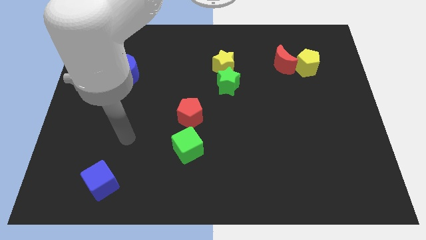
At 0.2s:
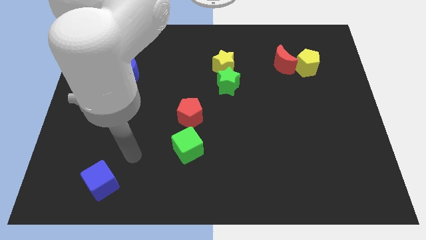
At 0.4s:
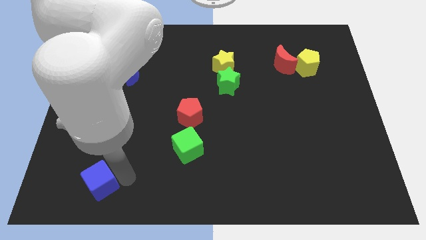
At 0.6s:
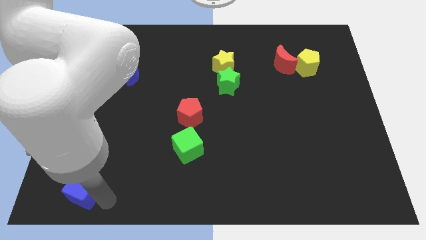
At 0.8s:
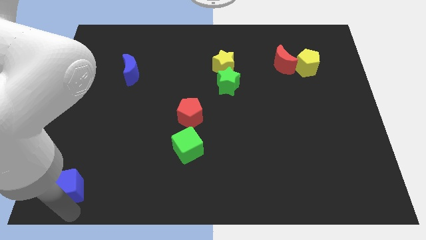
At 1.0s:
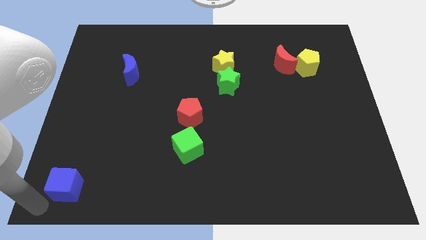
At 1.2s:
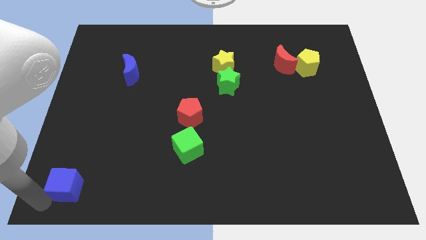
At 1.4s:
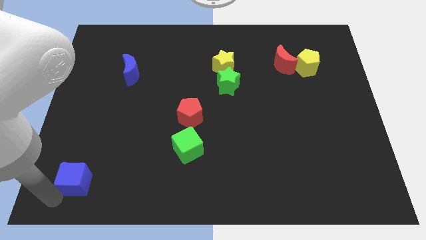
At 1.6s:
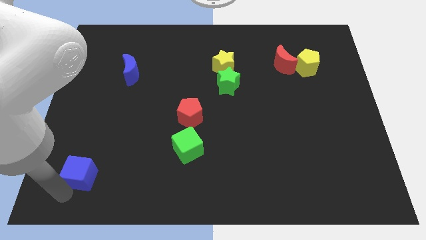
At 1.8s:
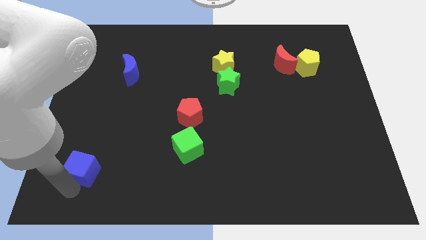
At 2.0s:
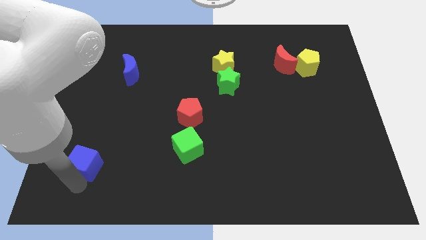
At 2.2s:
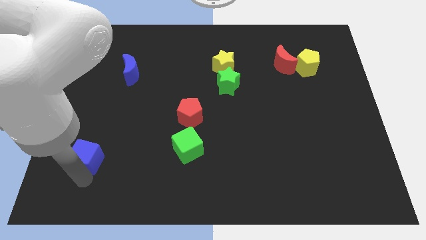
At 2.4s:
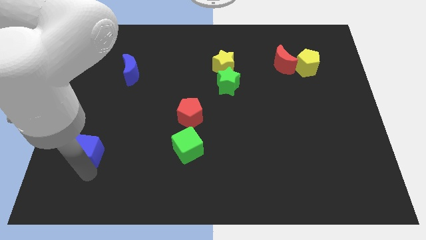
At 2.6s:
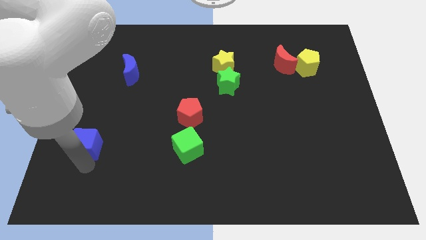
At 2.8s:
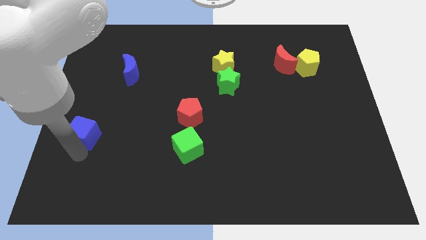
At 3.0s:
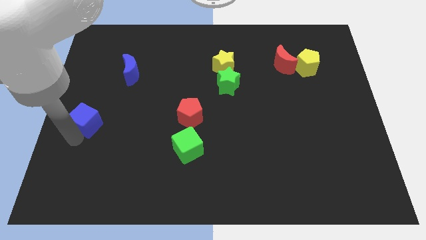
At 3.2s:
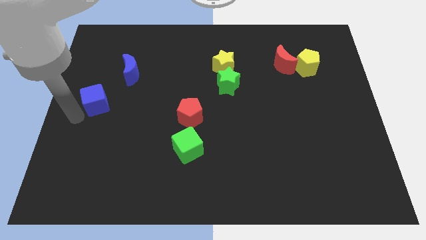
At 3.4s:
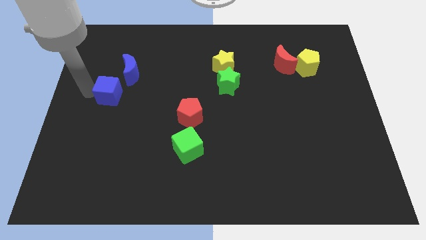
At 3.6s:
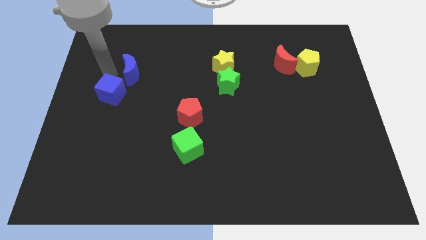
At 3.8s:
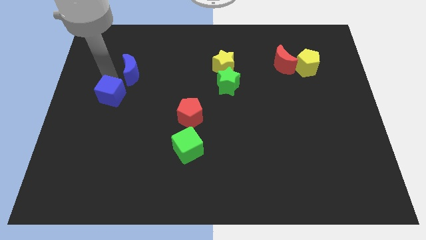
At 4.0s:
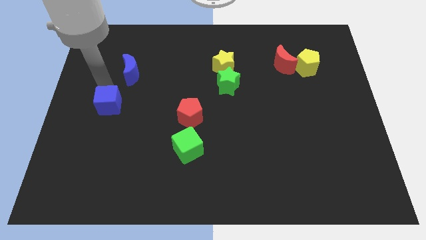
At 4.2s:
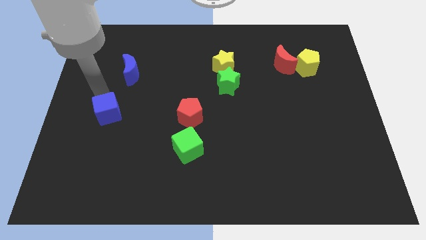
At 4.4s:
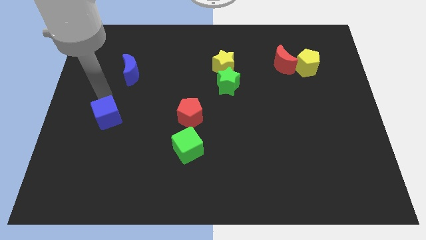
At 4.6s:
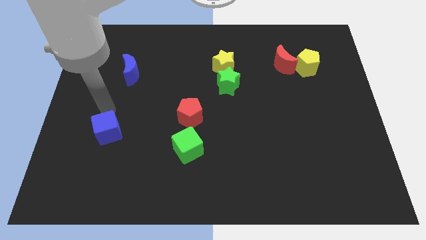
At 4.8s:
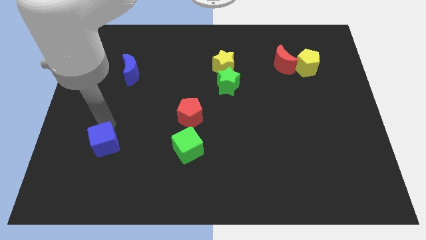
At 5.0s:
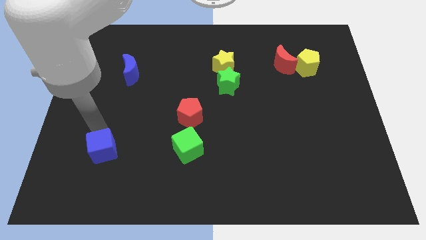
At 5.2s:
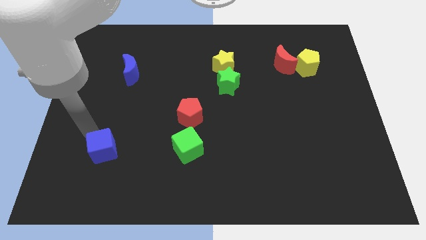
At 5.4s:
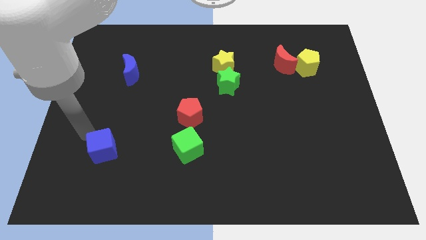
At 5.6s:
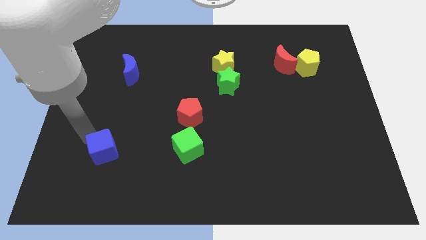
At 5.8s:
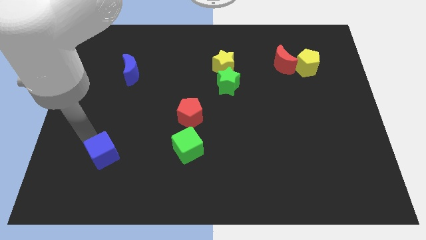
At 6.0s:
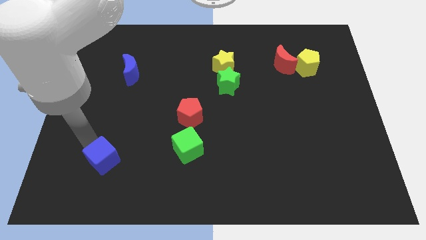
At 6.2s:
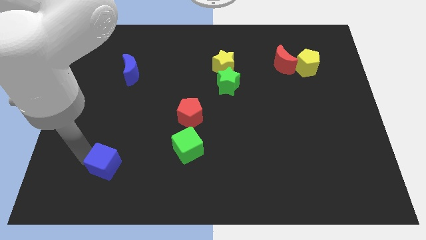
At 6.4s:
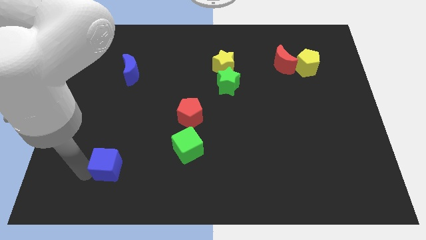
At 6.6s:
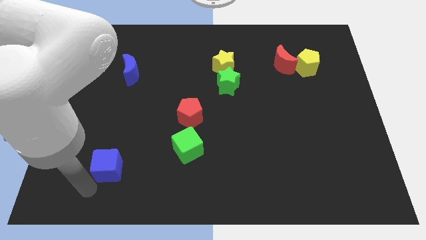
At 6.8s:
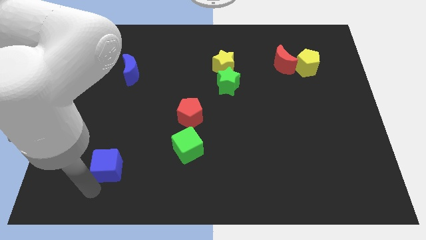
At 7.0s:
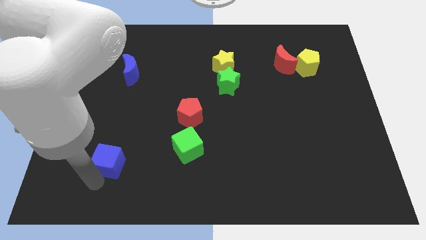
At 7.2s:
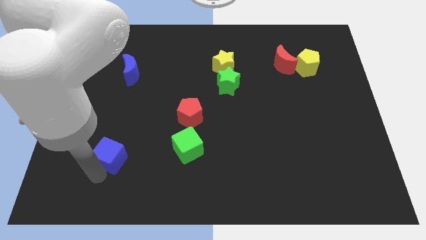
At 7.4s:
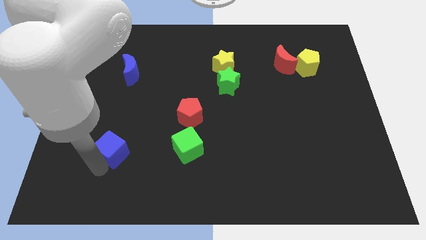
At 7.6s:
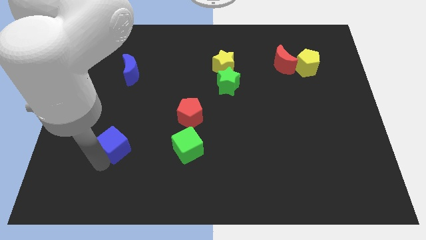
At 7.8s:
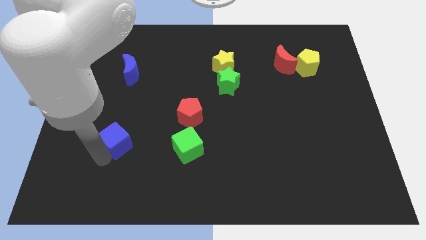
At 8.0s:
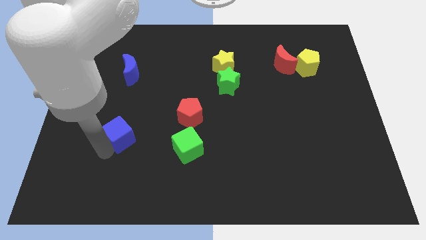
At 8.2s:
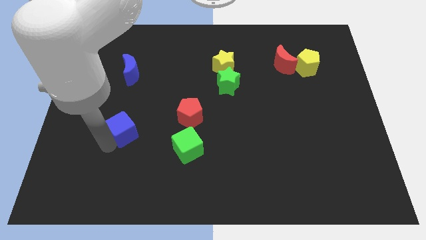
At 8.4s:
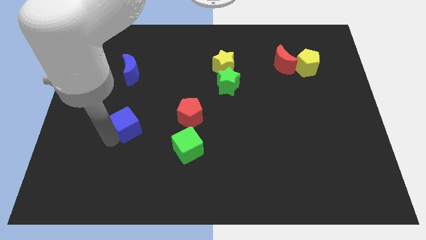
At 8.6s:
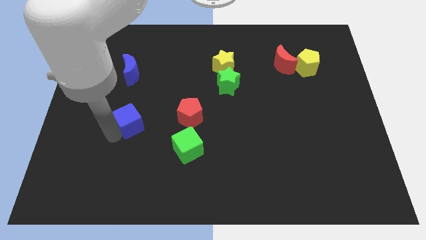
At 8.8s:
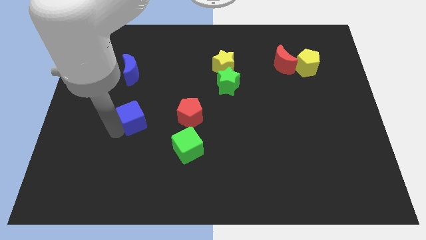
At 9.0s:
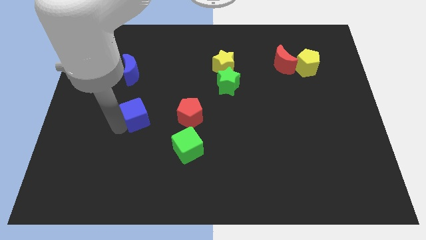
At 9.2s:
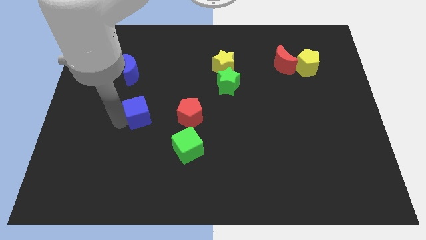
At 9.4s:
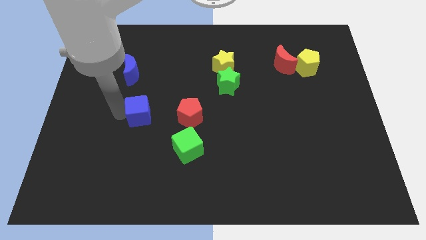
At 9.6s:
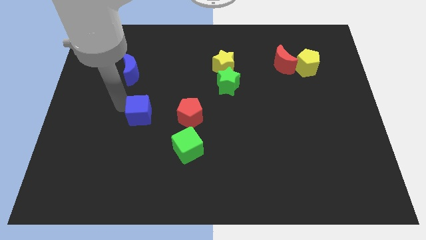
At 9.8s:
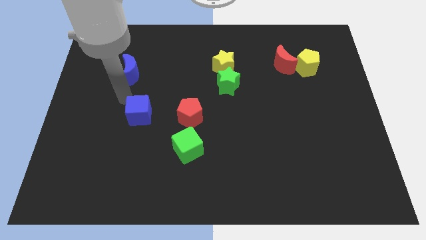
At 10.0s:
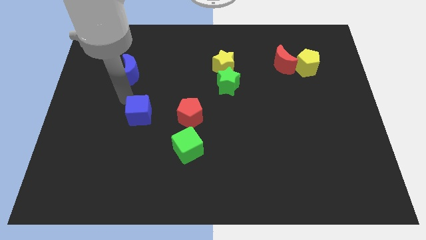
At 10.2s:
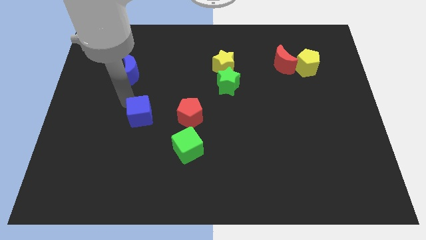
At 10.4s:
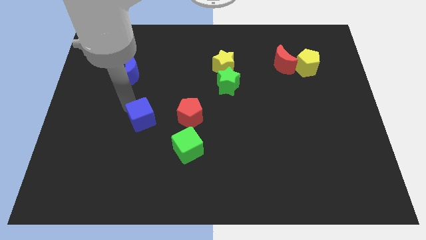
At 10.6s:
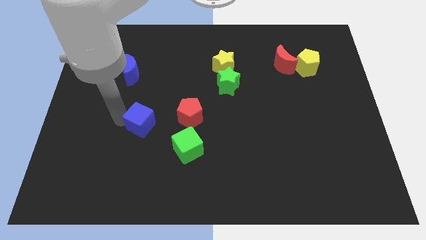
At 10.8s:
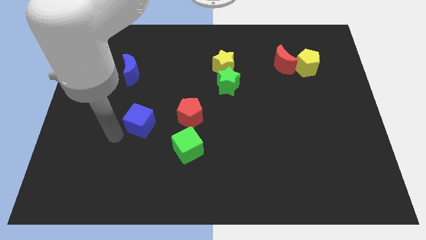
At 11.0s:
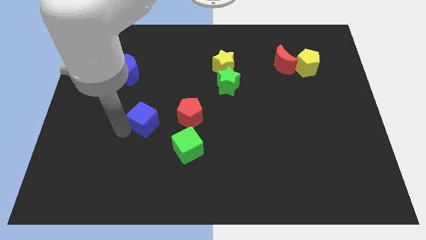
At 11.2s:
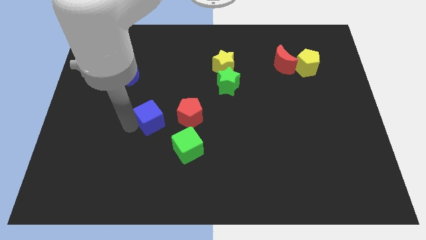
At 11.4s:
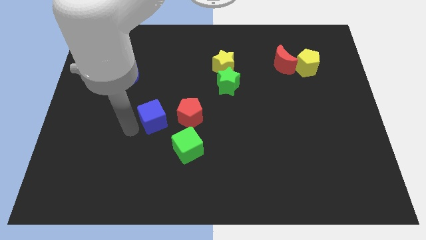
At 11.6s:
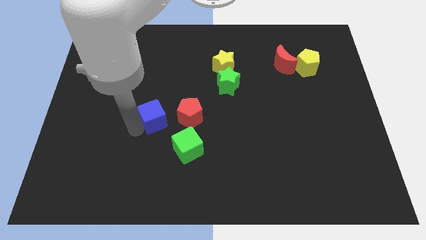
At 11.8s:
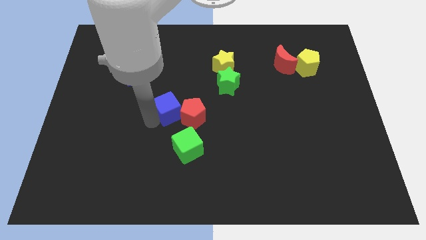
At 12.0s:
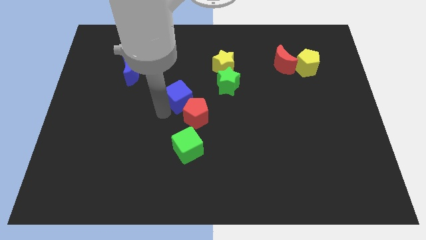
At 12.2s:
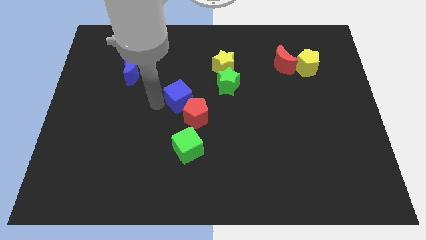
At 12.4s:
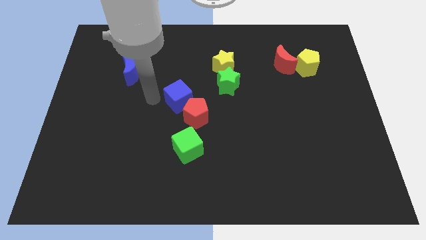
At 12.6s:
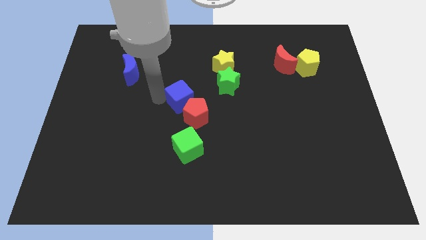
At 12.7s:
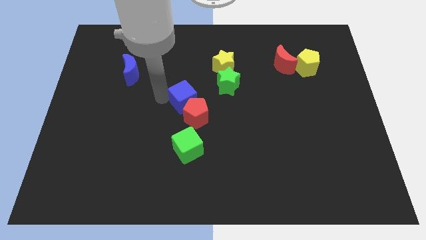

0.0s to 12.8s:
slide the blue cube to the bottom left side of the green star
